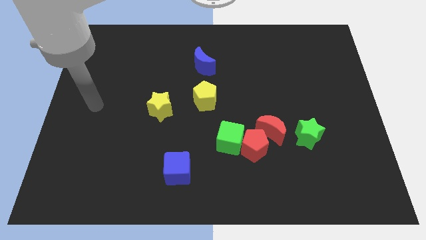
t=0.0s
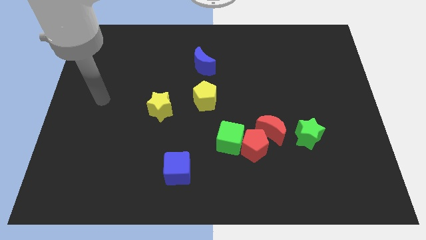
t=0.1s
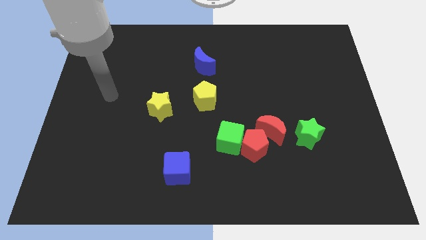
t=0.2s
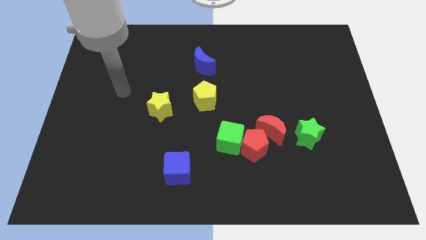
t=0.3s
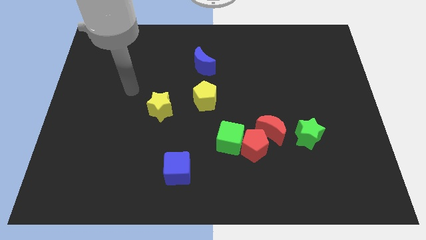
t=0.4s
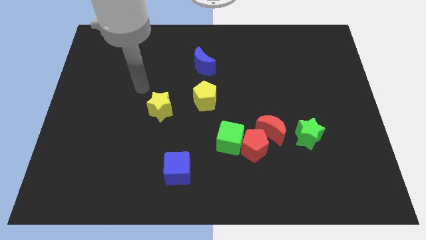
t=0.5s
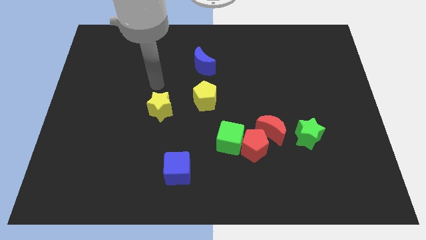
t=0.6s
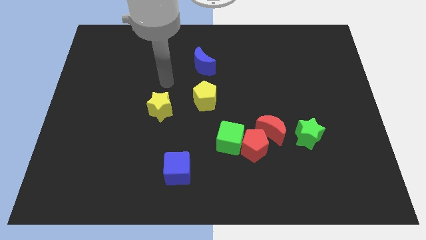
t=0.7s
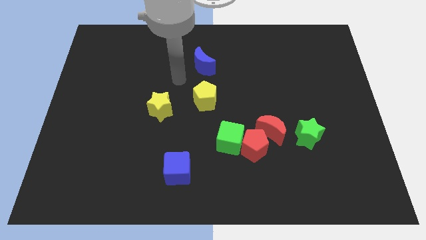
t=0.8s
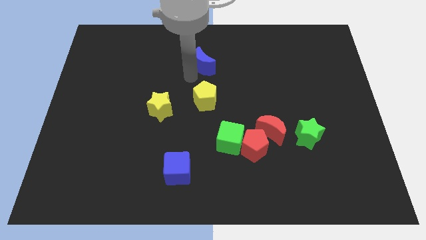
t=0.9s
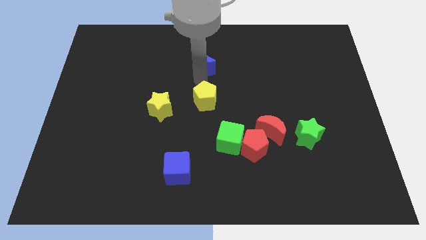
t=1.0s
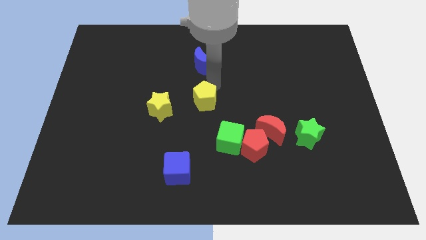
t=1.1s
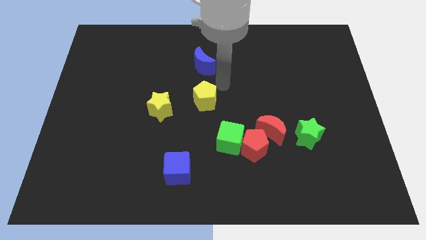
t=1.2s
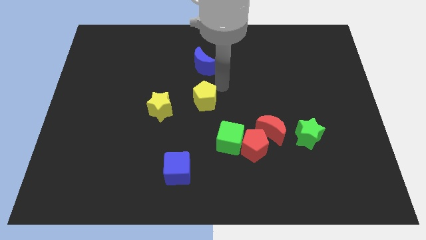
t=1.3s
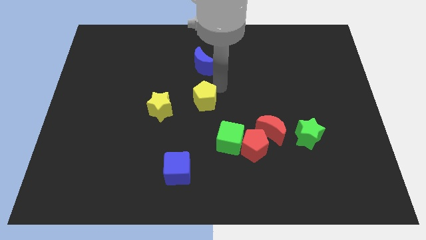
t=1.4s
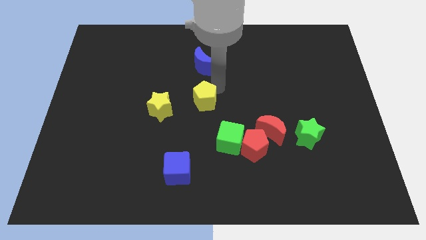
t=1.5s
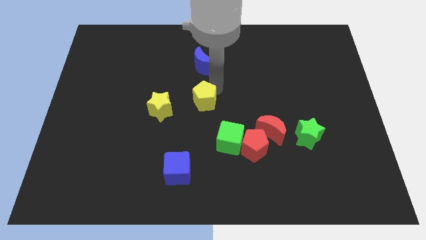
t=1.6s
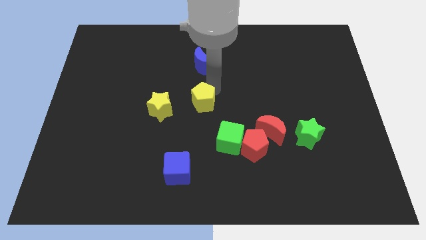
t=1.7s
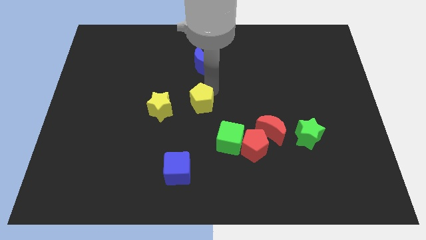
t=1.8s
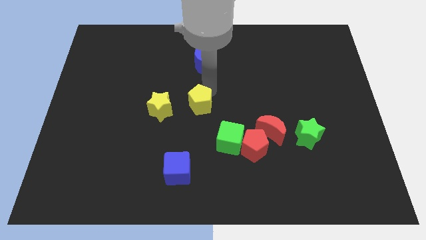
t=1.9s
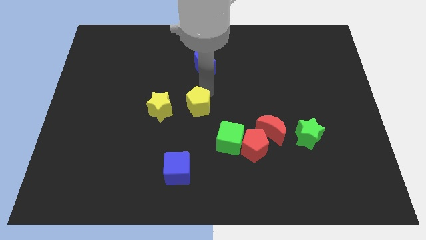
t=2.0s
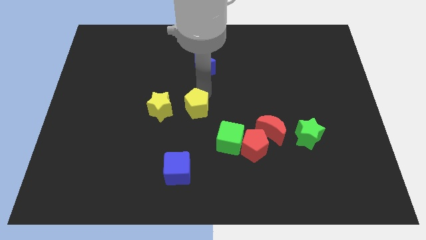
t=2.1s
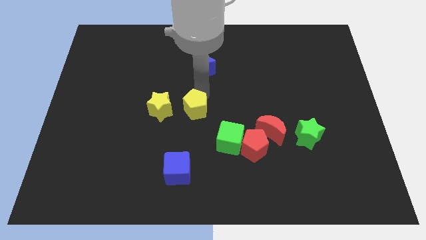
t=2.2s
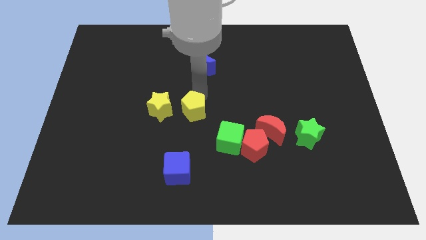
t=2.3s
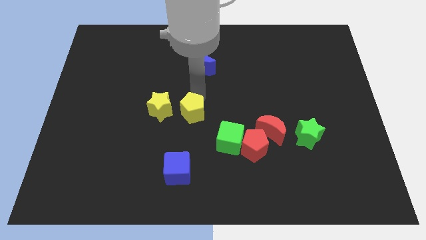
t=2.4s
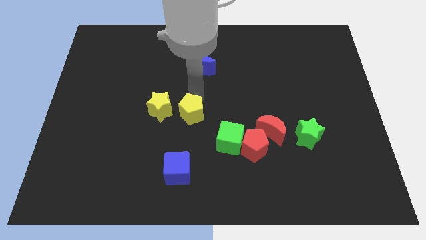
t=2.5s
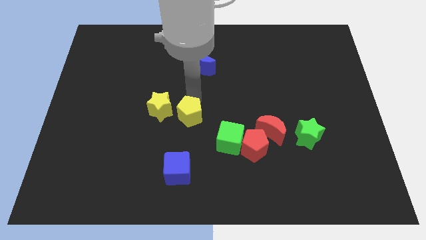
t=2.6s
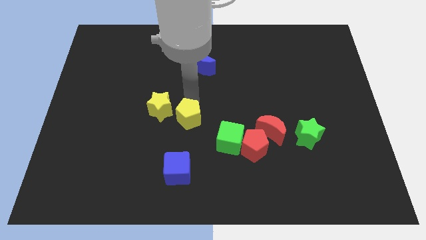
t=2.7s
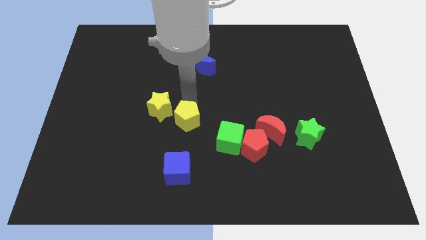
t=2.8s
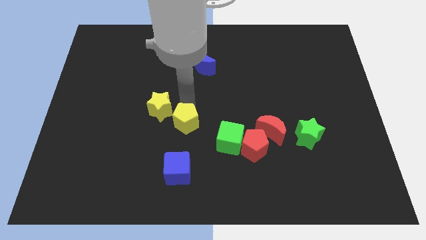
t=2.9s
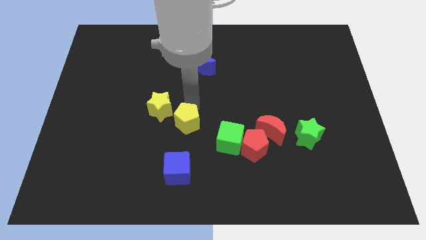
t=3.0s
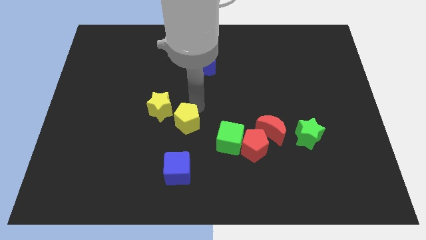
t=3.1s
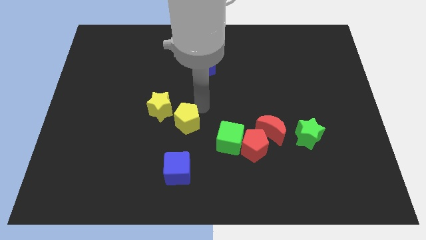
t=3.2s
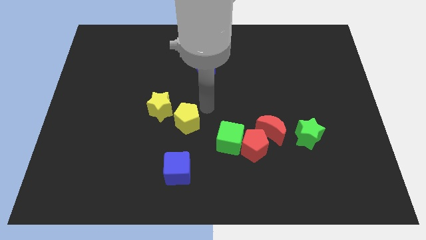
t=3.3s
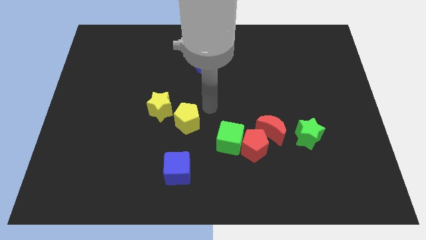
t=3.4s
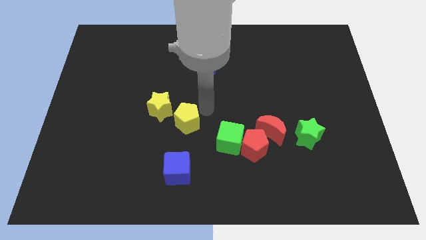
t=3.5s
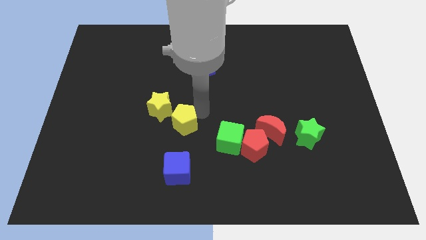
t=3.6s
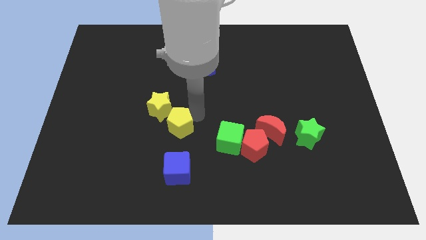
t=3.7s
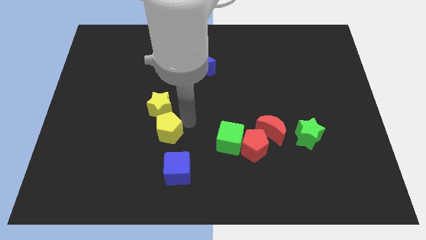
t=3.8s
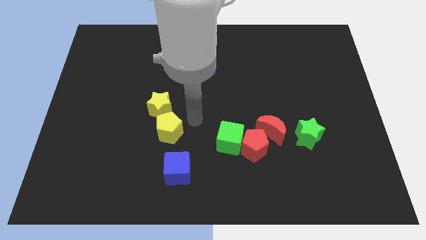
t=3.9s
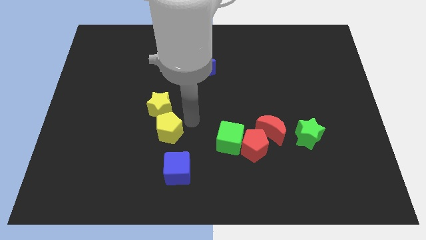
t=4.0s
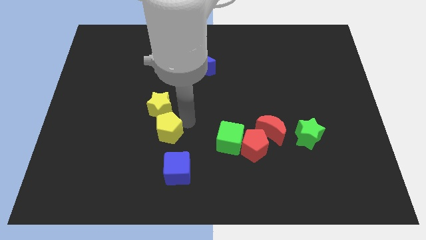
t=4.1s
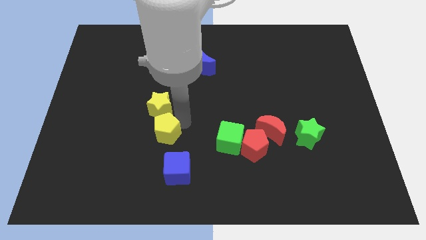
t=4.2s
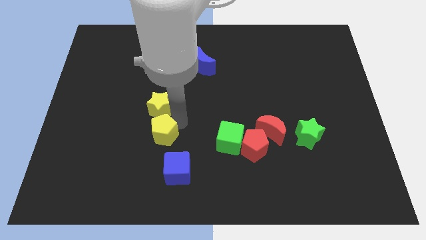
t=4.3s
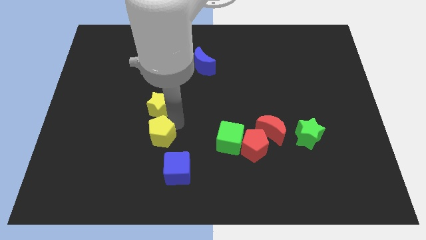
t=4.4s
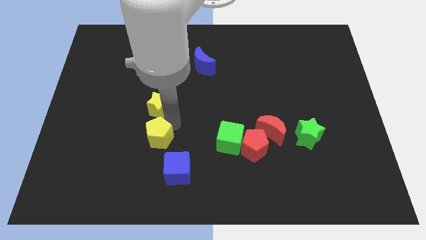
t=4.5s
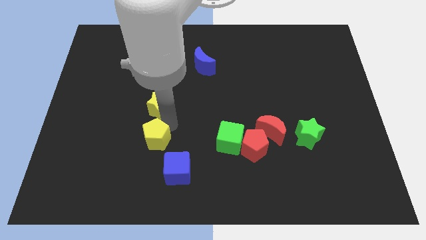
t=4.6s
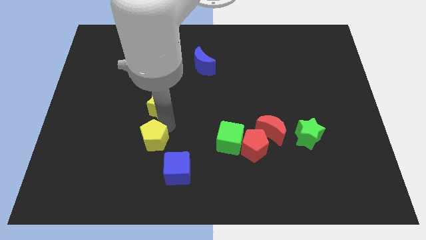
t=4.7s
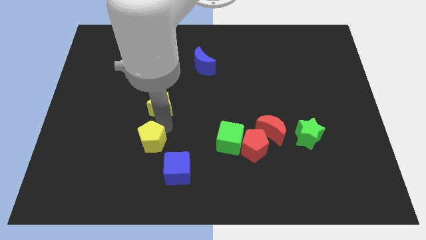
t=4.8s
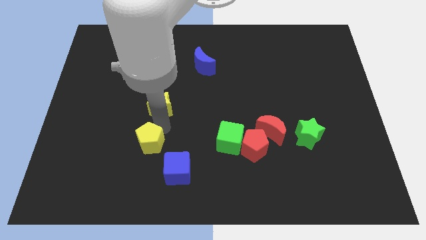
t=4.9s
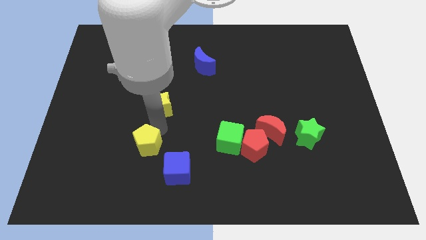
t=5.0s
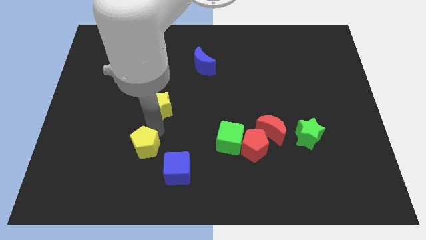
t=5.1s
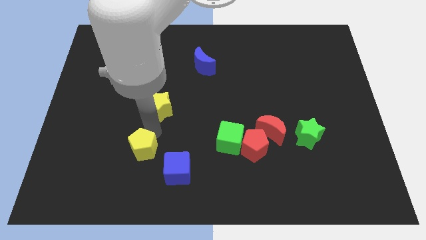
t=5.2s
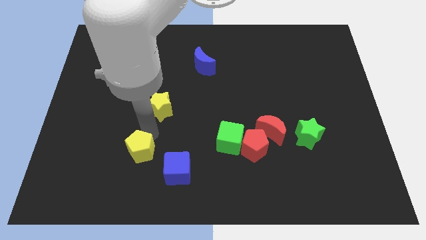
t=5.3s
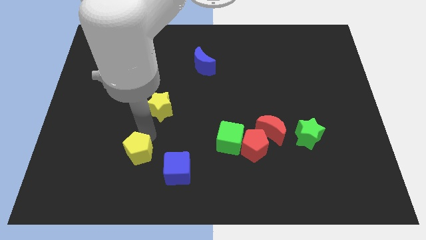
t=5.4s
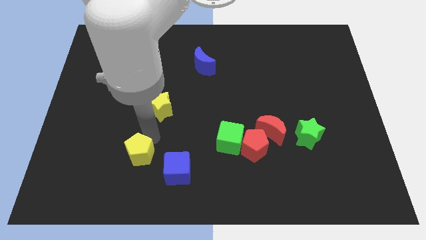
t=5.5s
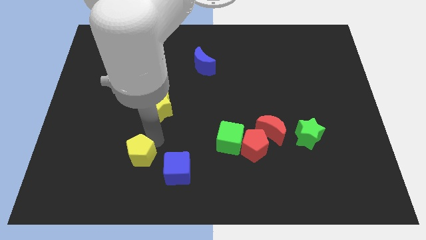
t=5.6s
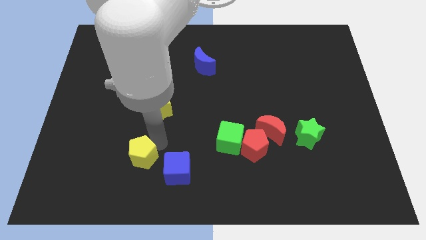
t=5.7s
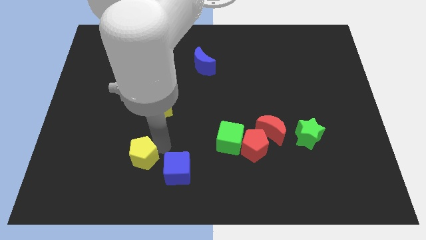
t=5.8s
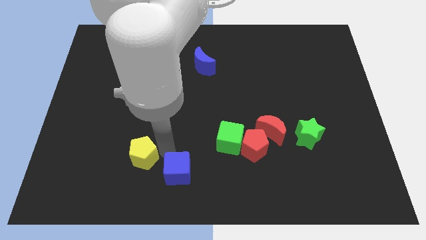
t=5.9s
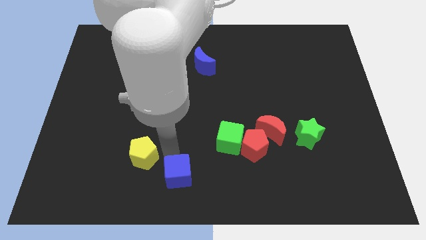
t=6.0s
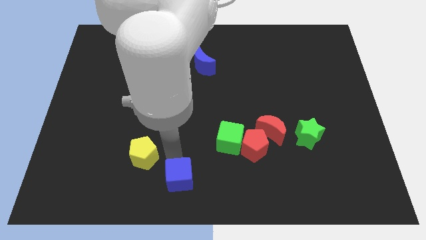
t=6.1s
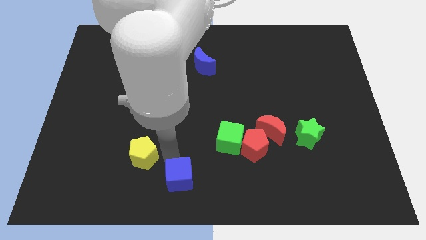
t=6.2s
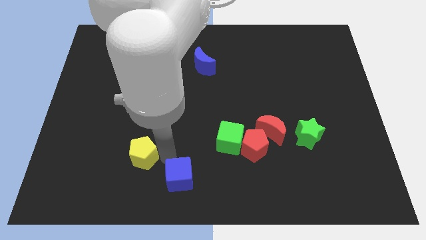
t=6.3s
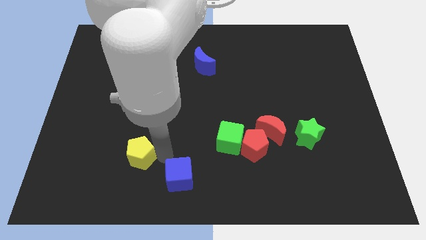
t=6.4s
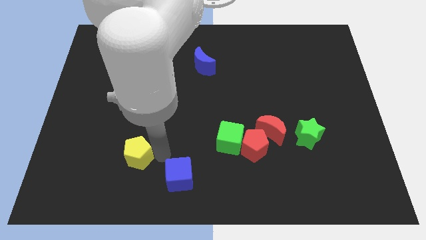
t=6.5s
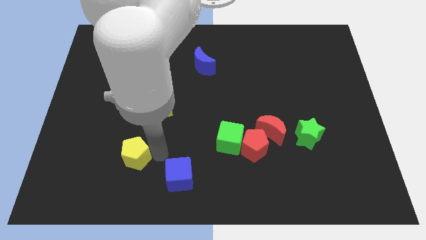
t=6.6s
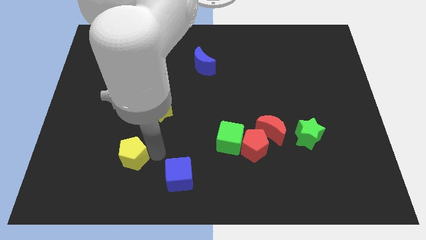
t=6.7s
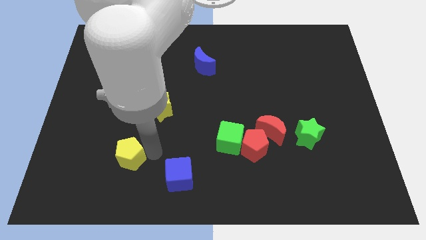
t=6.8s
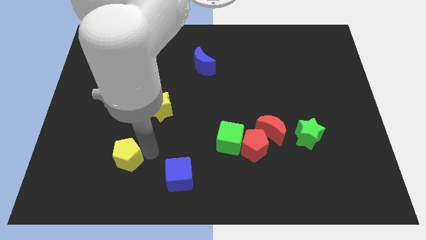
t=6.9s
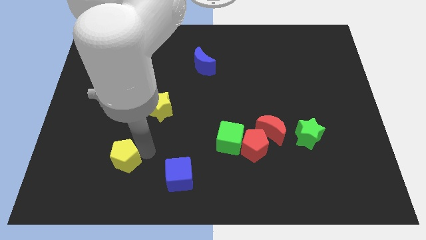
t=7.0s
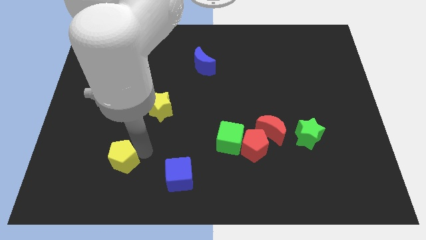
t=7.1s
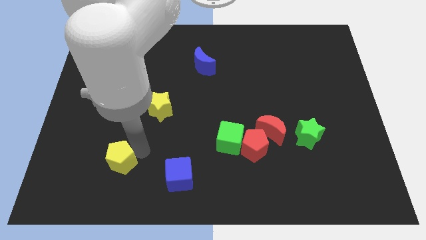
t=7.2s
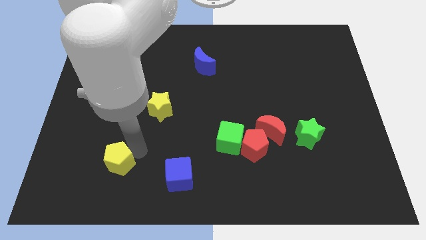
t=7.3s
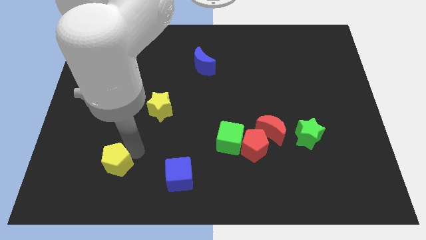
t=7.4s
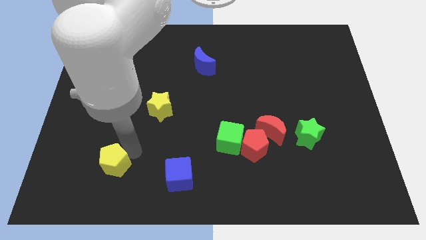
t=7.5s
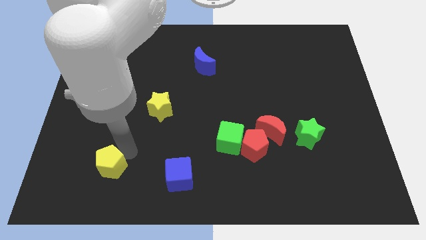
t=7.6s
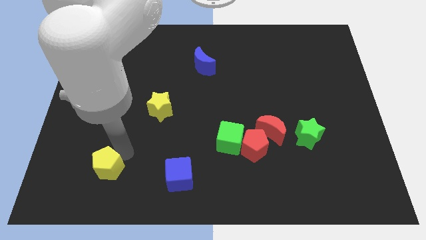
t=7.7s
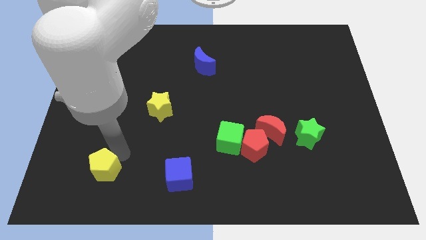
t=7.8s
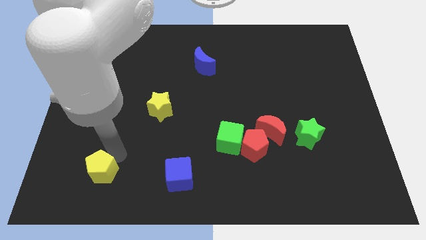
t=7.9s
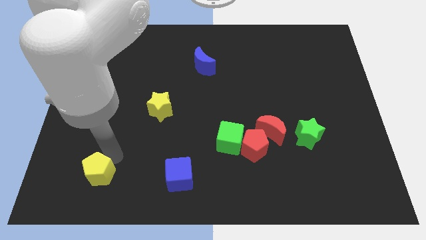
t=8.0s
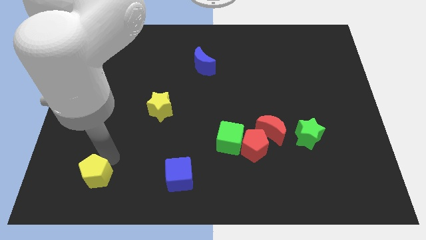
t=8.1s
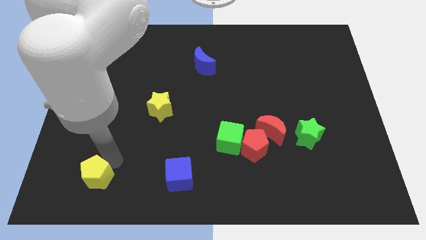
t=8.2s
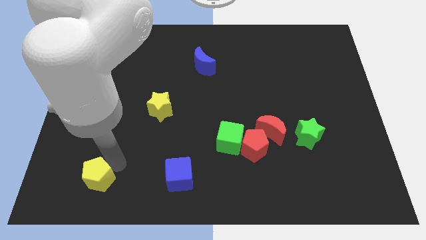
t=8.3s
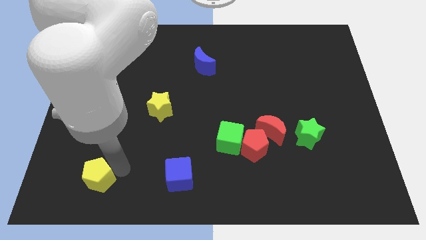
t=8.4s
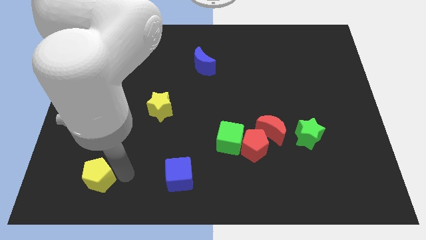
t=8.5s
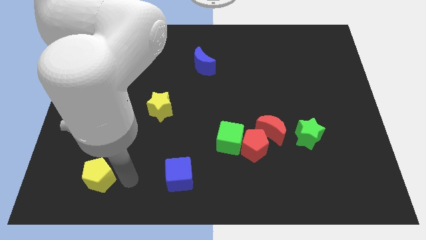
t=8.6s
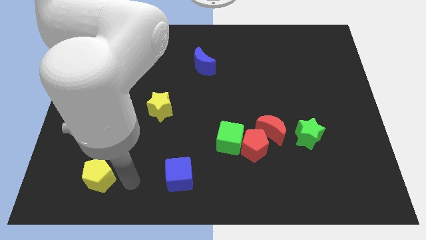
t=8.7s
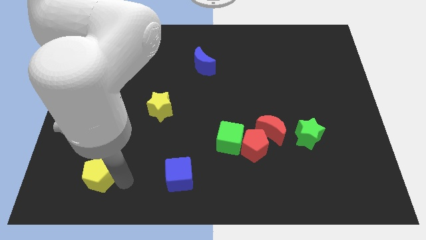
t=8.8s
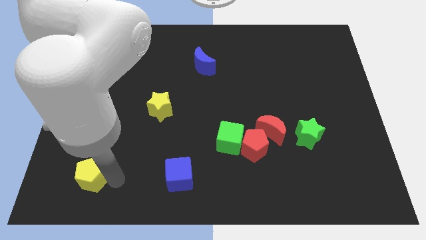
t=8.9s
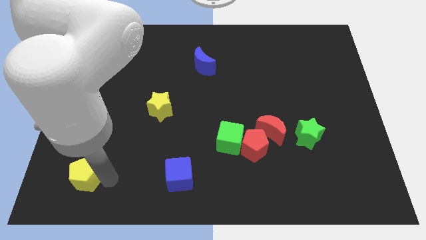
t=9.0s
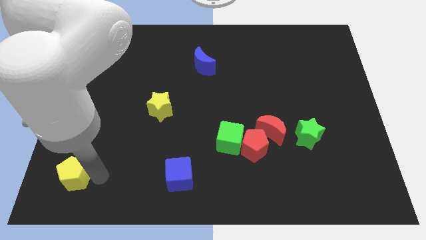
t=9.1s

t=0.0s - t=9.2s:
put the yellow pentagon to the bottom left corner
